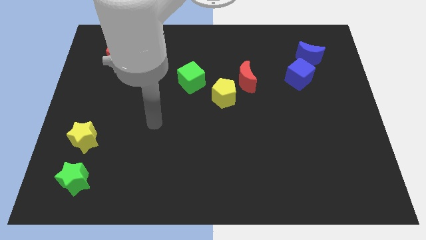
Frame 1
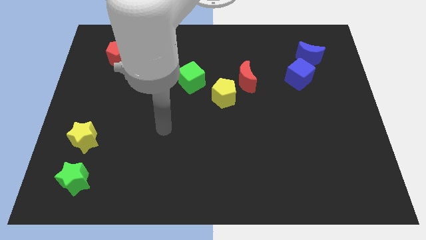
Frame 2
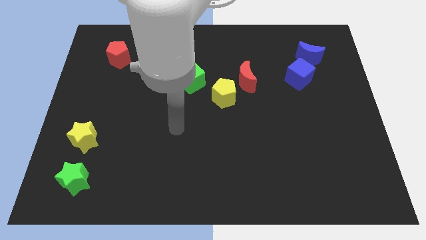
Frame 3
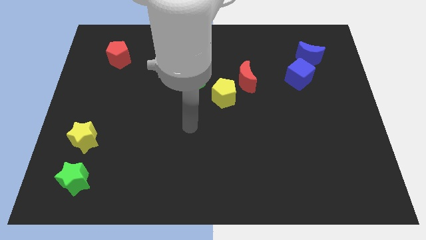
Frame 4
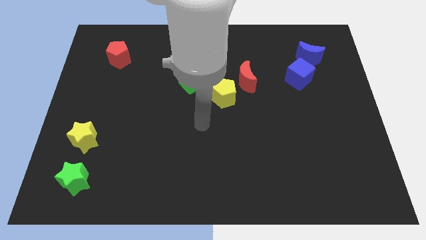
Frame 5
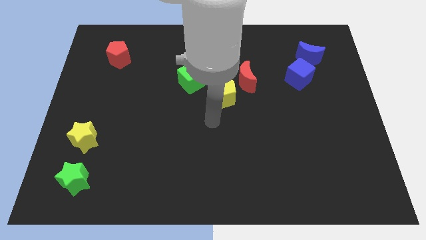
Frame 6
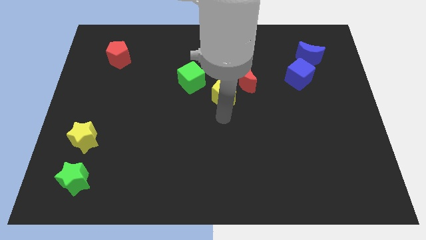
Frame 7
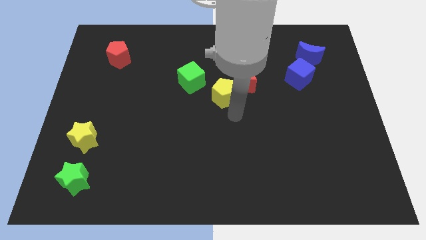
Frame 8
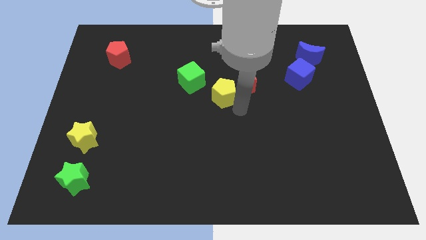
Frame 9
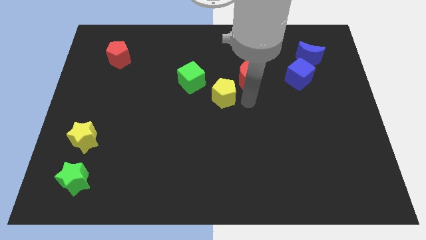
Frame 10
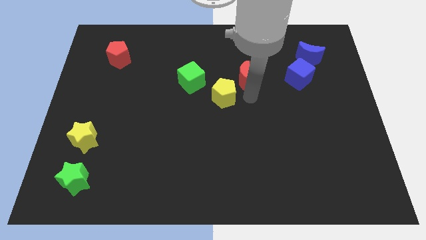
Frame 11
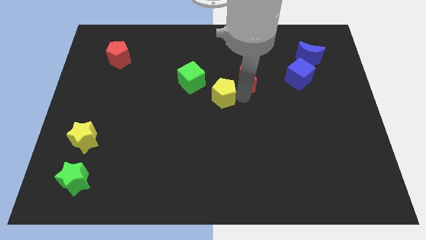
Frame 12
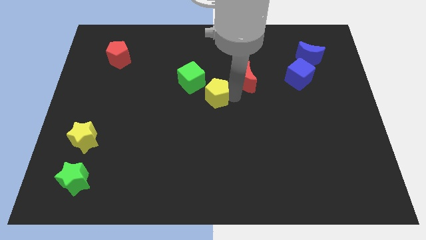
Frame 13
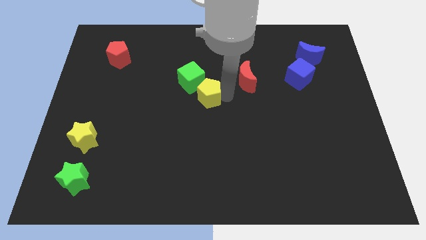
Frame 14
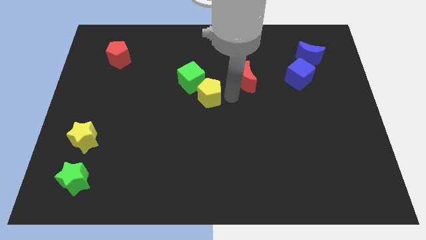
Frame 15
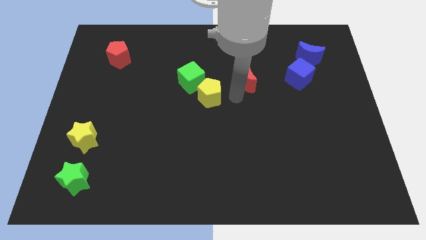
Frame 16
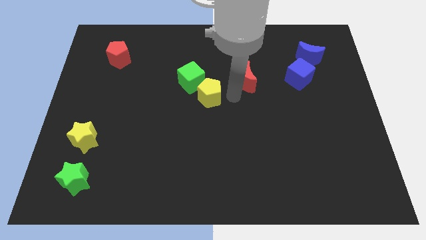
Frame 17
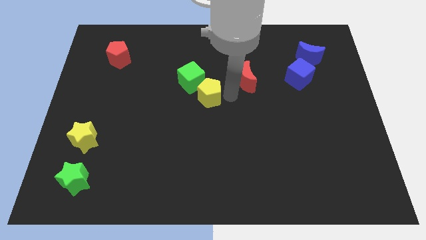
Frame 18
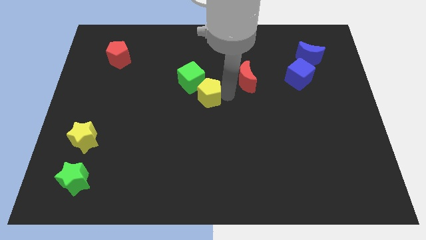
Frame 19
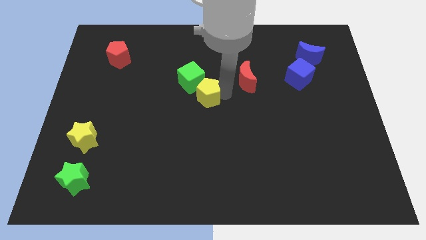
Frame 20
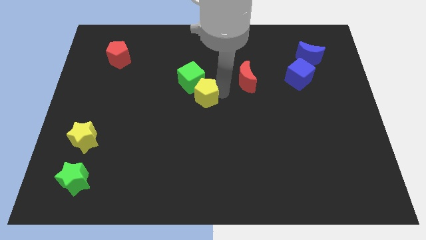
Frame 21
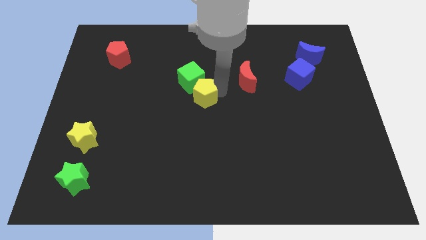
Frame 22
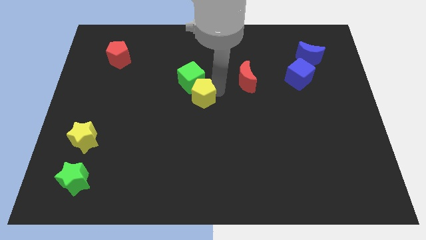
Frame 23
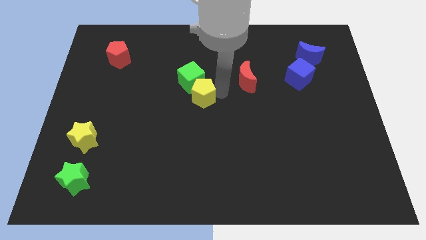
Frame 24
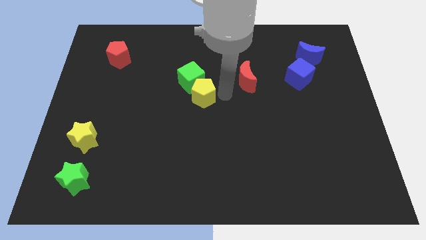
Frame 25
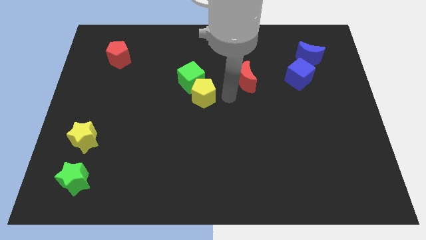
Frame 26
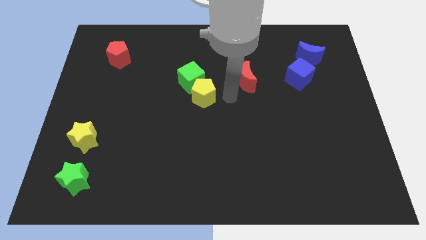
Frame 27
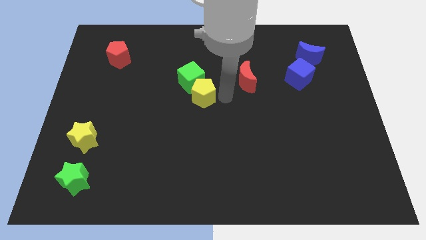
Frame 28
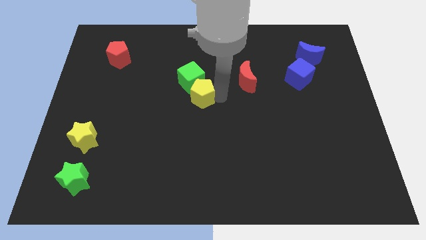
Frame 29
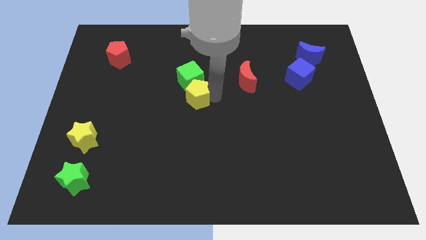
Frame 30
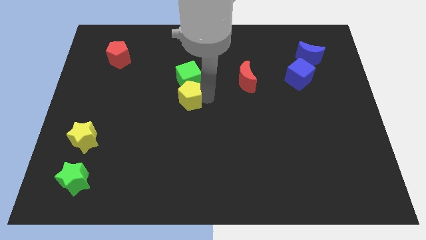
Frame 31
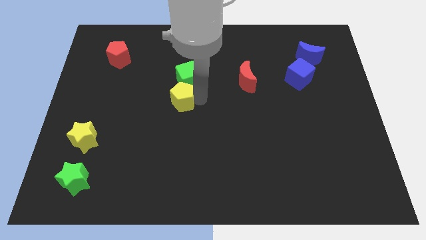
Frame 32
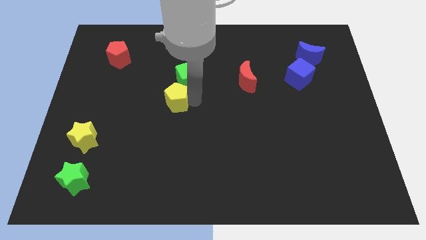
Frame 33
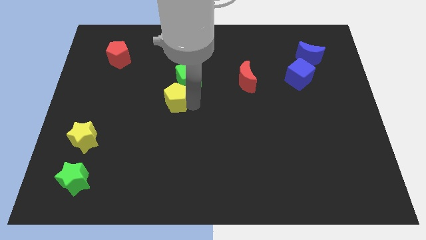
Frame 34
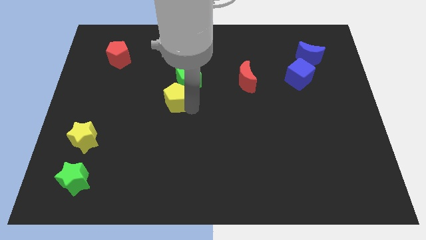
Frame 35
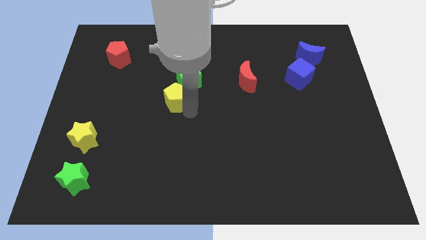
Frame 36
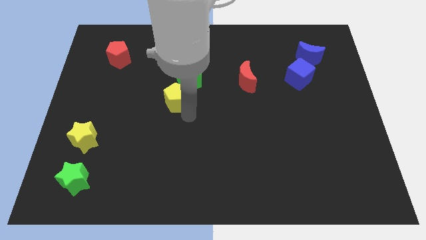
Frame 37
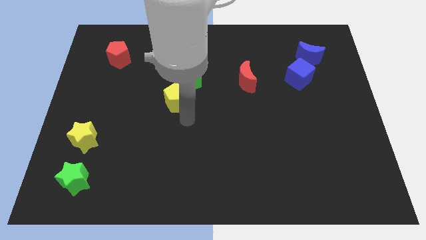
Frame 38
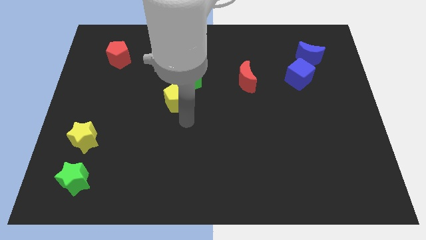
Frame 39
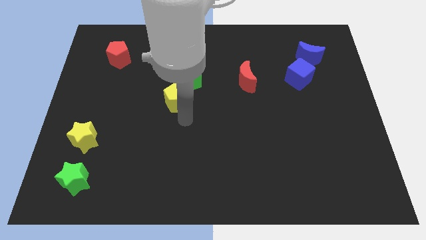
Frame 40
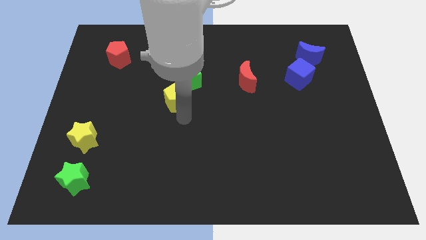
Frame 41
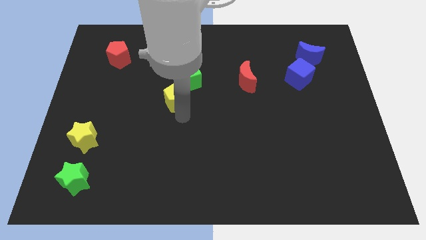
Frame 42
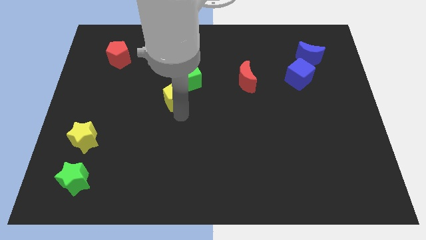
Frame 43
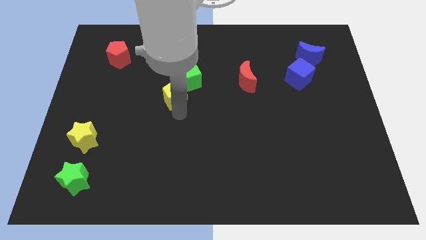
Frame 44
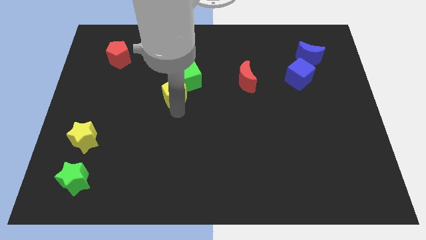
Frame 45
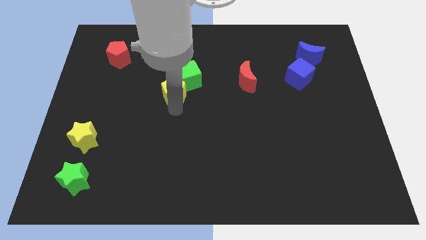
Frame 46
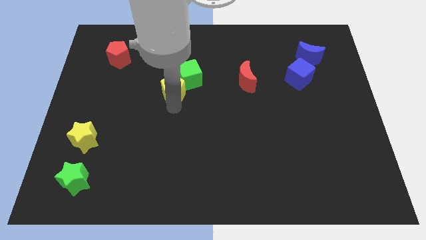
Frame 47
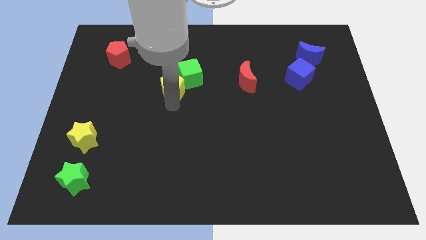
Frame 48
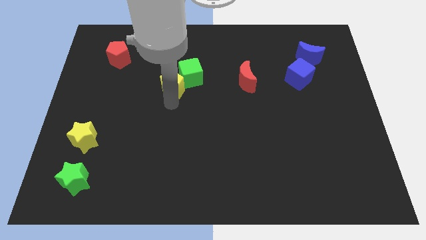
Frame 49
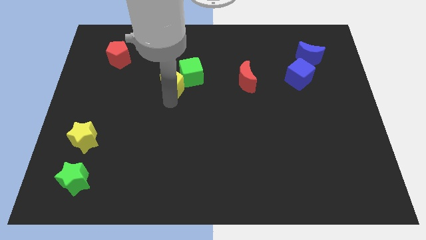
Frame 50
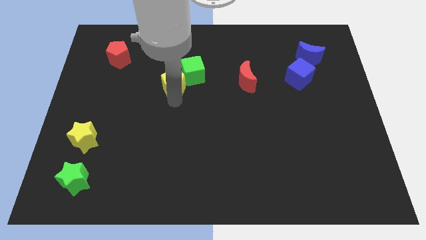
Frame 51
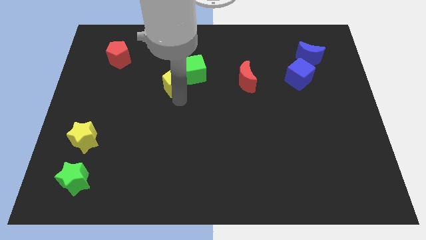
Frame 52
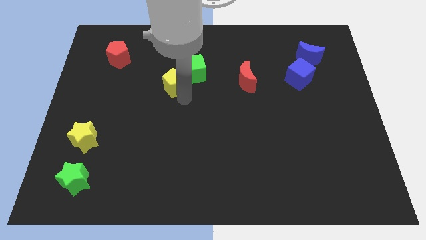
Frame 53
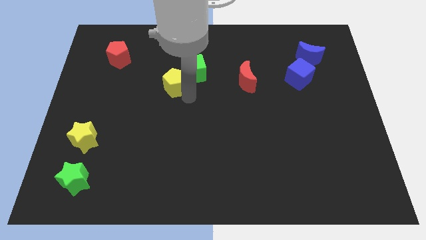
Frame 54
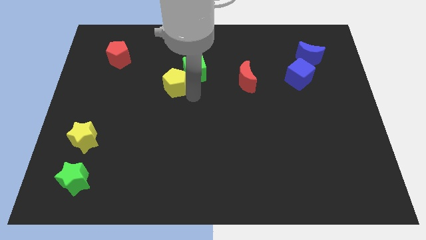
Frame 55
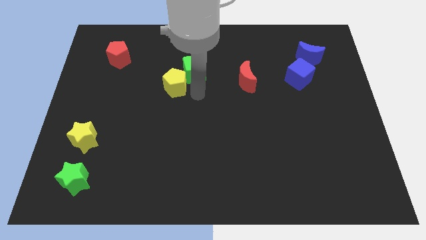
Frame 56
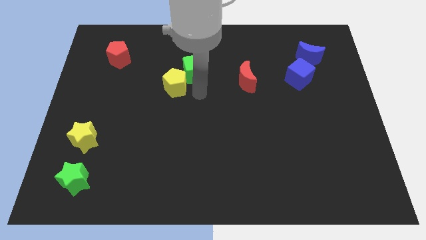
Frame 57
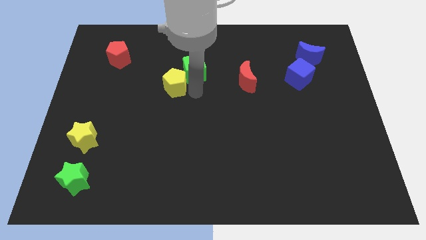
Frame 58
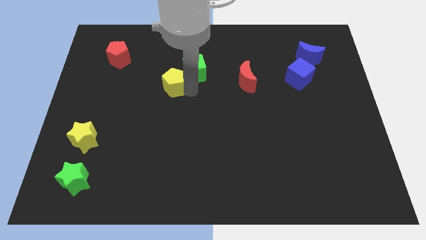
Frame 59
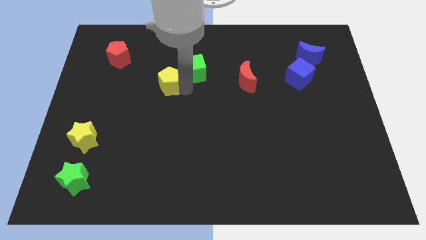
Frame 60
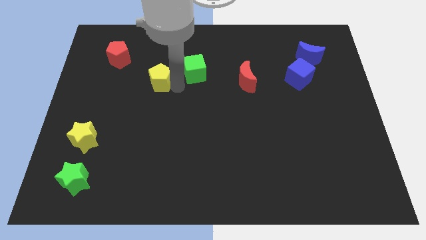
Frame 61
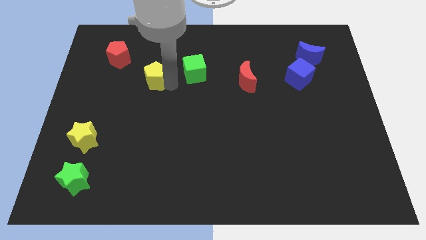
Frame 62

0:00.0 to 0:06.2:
push the yellow pentagon diagonally down and to the right of the red pentagon

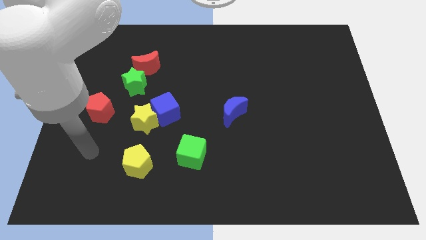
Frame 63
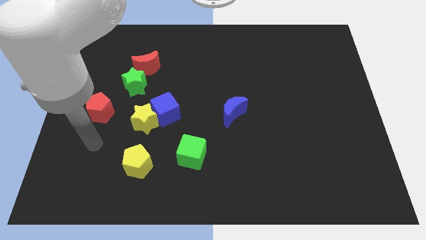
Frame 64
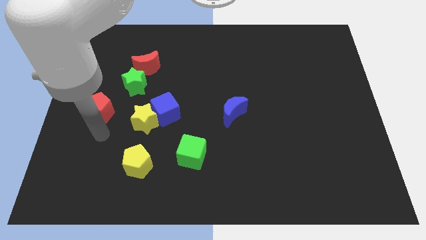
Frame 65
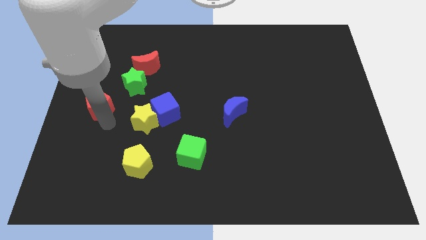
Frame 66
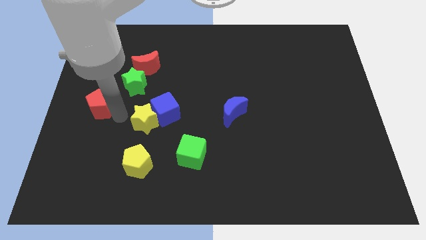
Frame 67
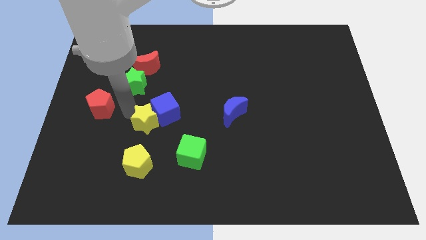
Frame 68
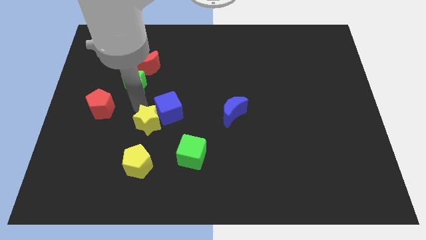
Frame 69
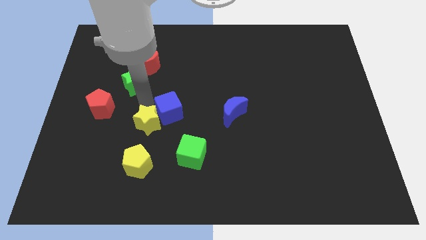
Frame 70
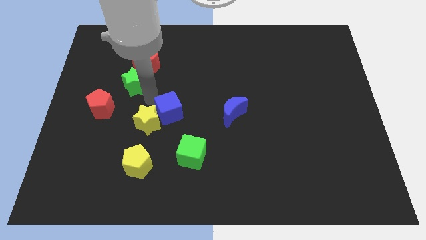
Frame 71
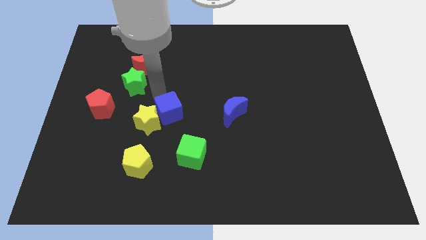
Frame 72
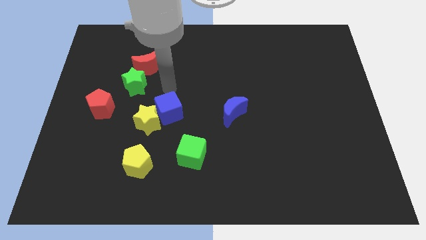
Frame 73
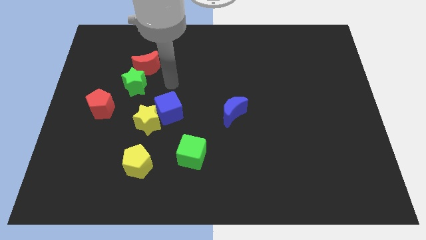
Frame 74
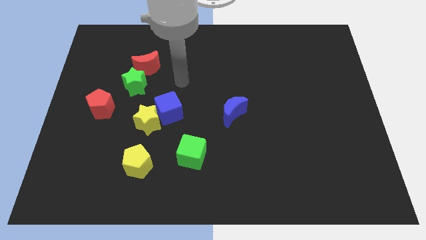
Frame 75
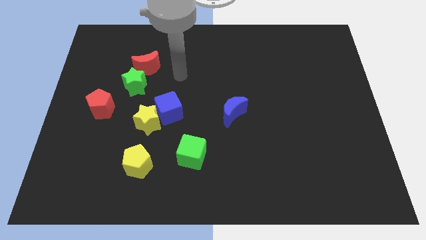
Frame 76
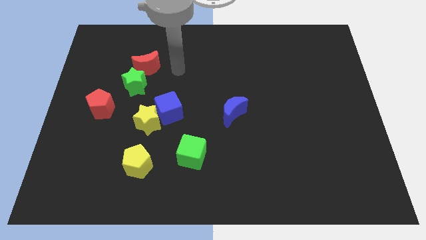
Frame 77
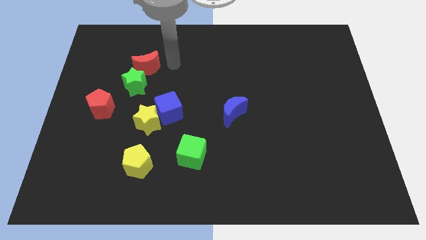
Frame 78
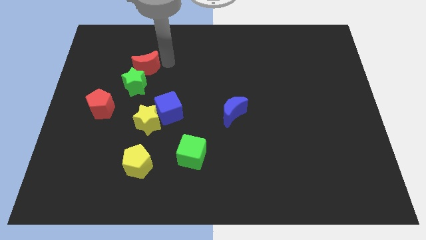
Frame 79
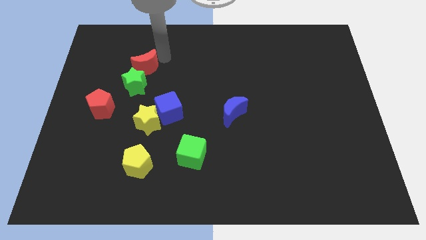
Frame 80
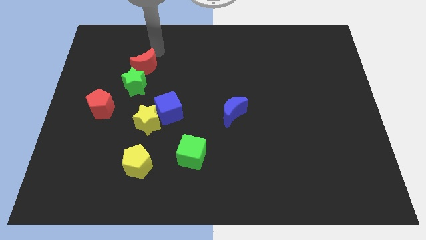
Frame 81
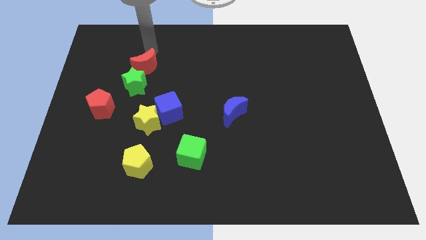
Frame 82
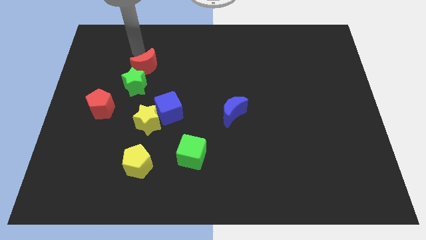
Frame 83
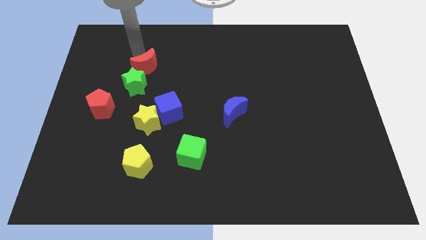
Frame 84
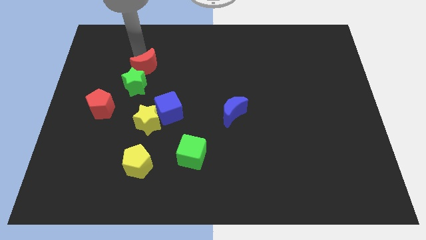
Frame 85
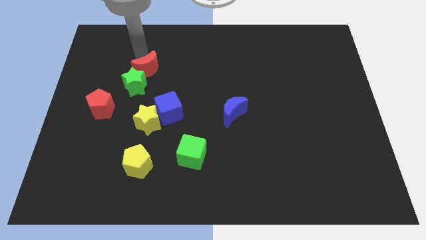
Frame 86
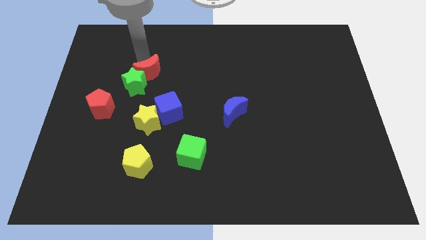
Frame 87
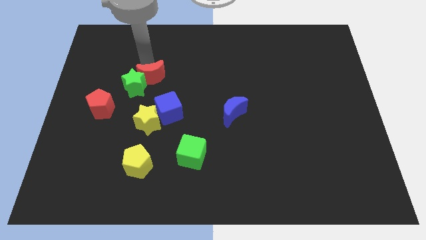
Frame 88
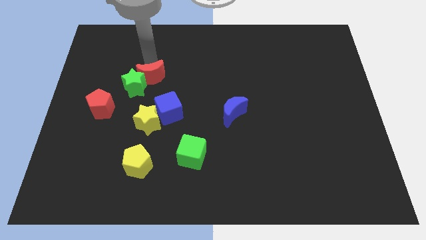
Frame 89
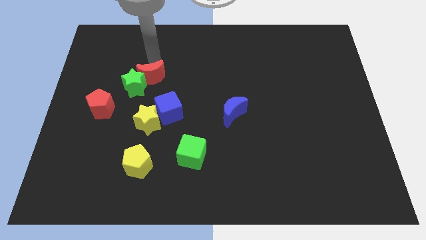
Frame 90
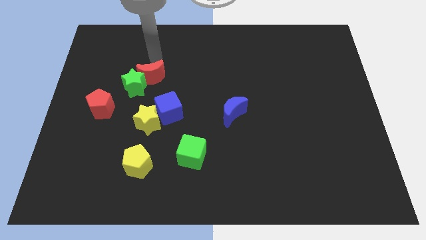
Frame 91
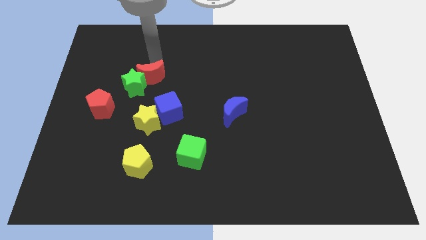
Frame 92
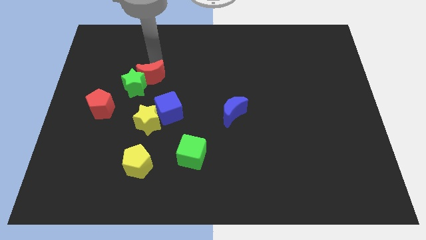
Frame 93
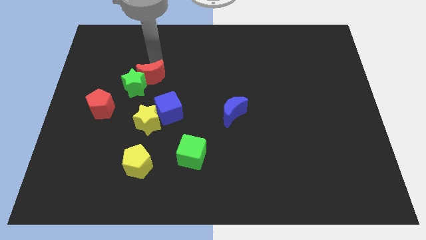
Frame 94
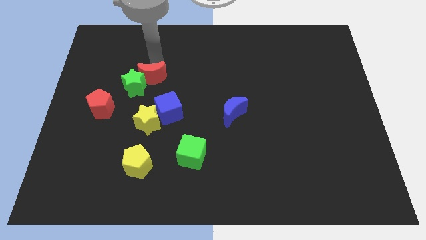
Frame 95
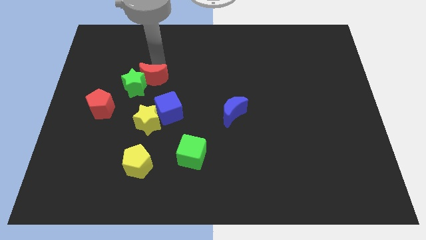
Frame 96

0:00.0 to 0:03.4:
slide the red moon to the top left side of the blue cube
